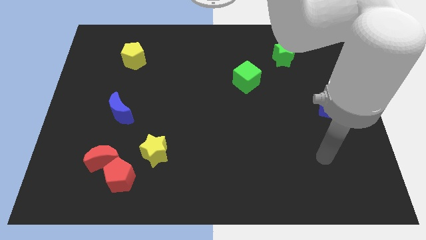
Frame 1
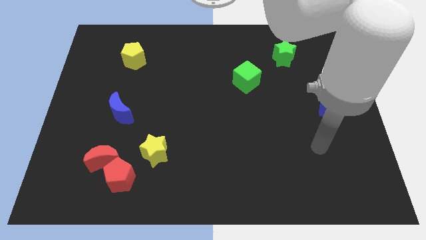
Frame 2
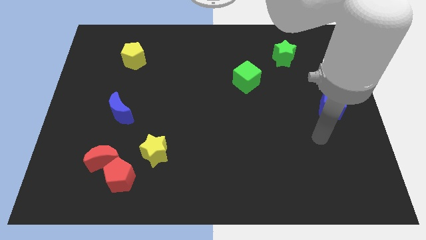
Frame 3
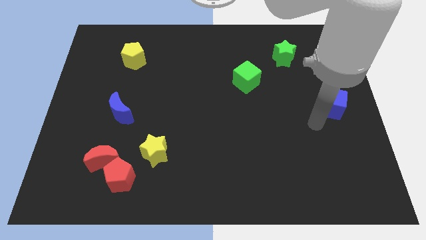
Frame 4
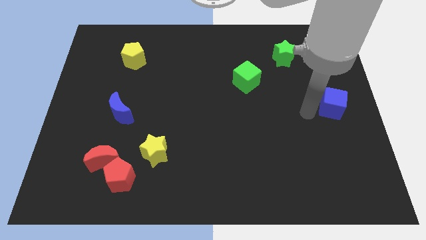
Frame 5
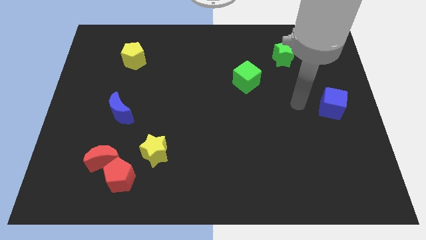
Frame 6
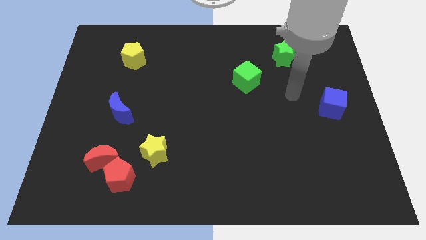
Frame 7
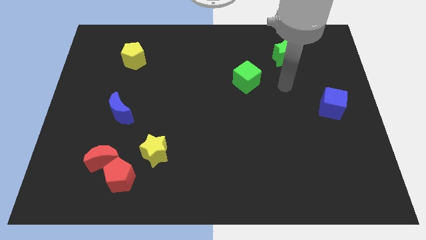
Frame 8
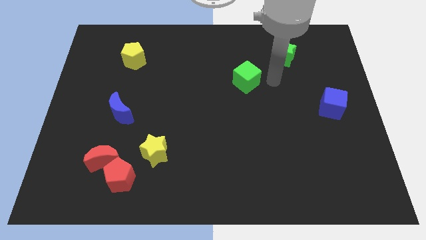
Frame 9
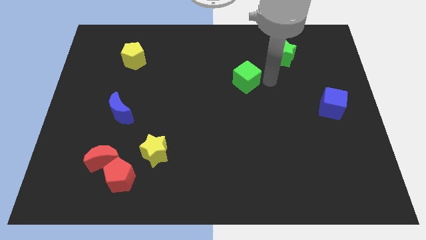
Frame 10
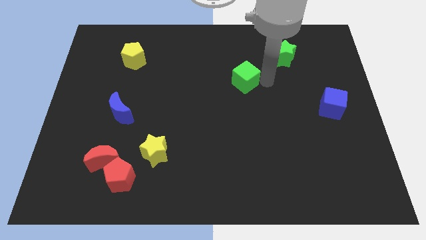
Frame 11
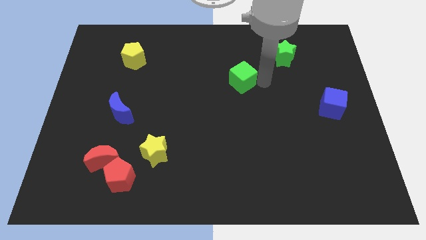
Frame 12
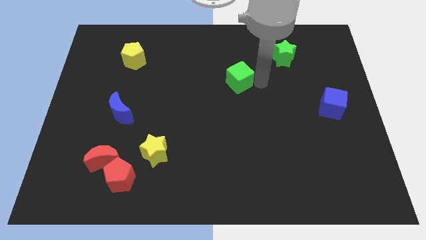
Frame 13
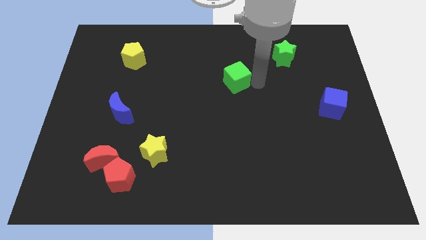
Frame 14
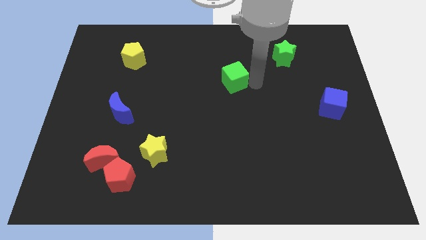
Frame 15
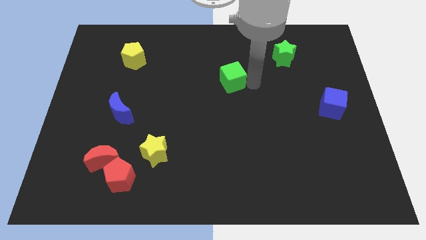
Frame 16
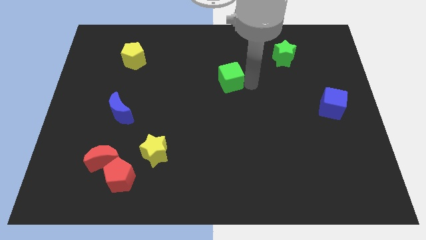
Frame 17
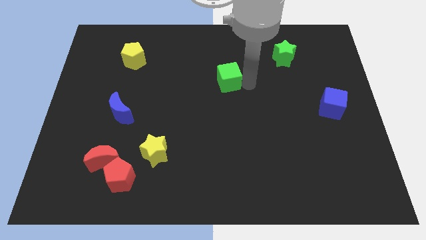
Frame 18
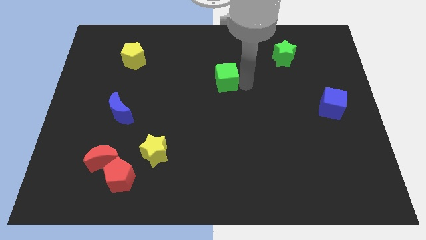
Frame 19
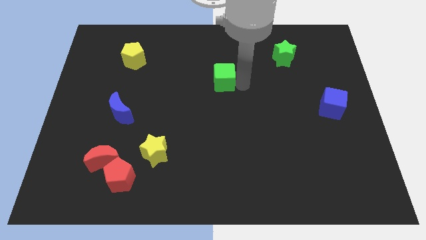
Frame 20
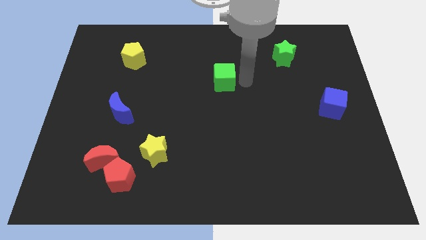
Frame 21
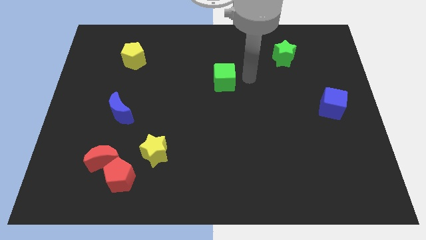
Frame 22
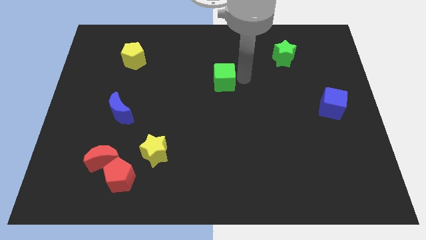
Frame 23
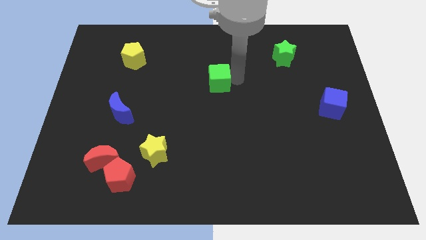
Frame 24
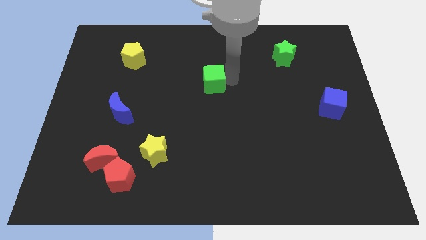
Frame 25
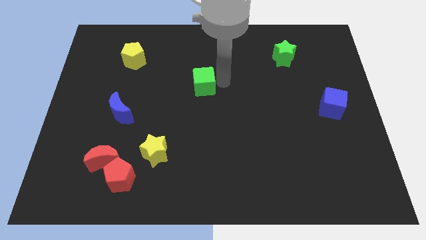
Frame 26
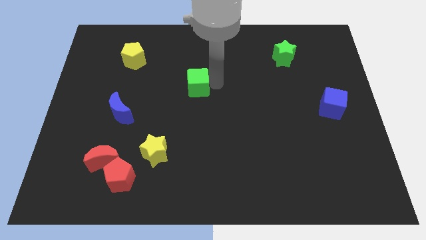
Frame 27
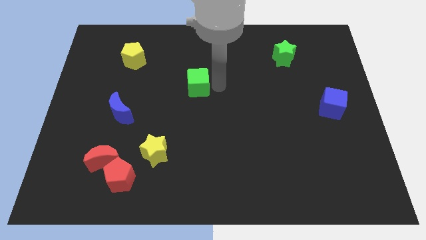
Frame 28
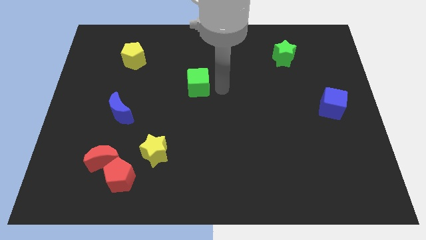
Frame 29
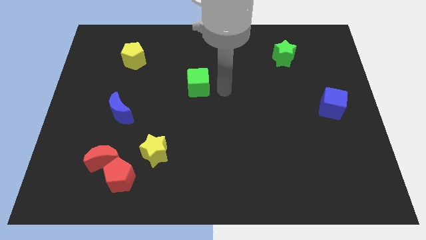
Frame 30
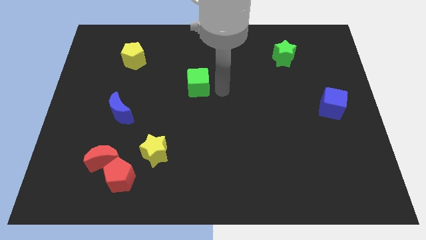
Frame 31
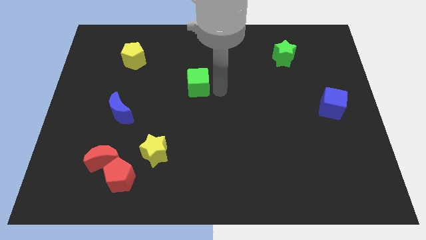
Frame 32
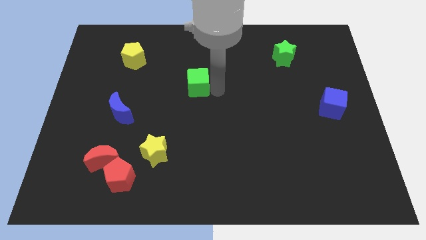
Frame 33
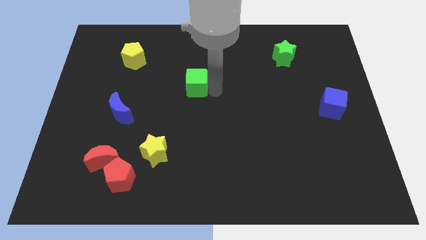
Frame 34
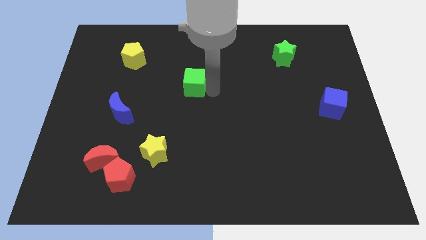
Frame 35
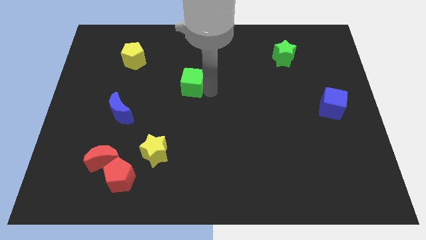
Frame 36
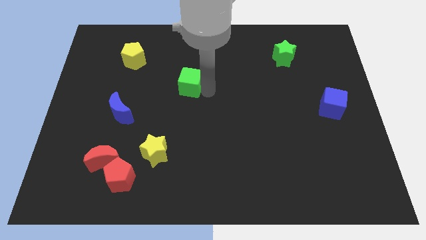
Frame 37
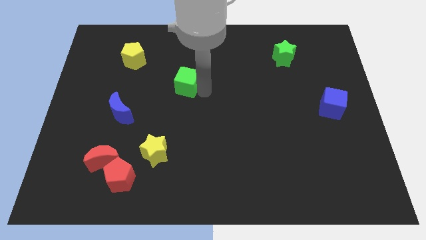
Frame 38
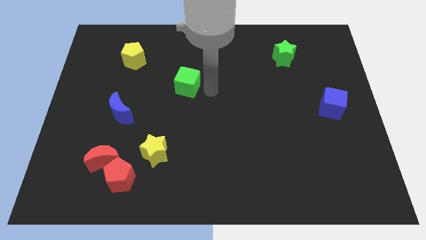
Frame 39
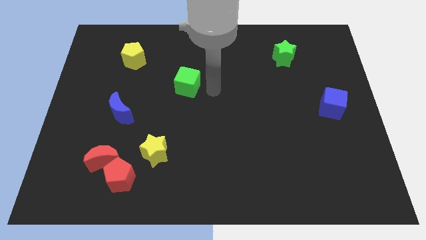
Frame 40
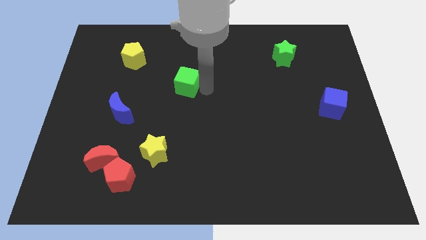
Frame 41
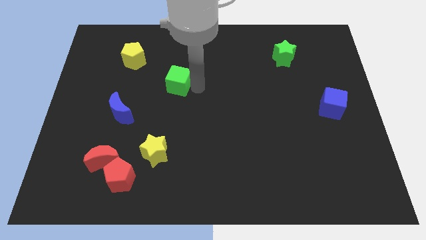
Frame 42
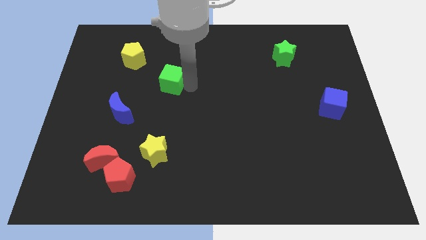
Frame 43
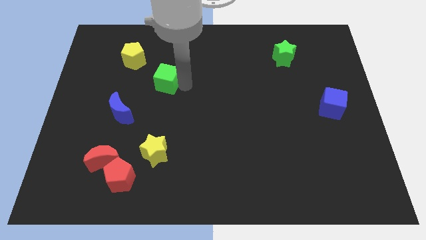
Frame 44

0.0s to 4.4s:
push the green cube left

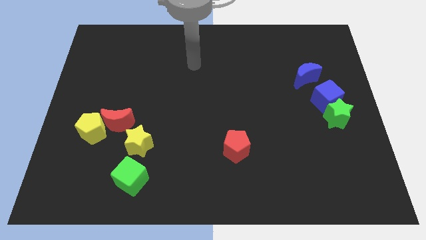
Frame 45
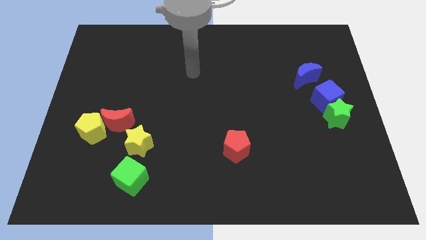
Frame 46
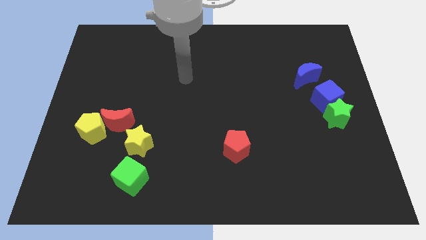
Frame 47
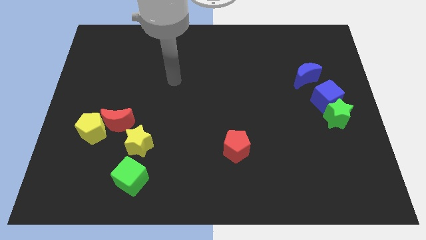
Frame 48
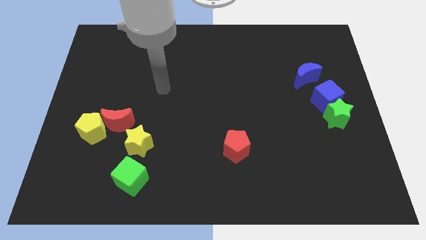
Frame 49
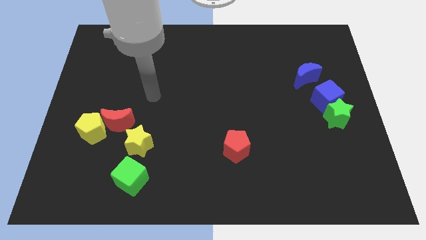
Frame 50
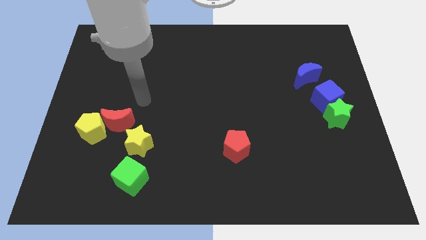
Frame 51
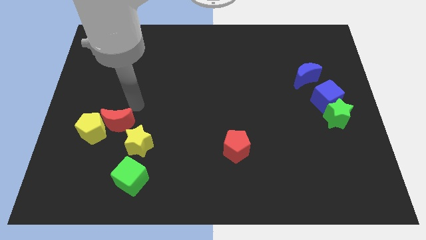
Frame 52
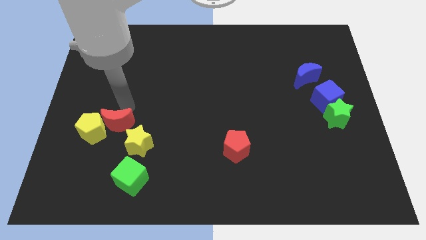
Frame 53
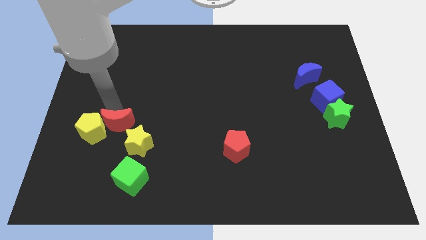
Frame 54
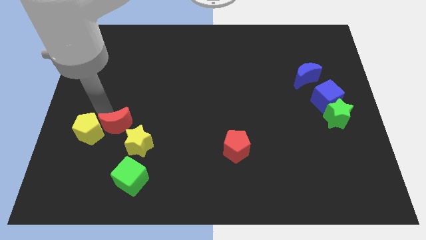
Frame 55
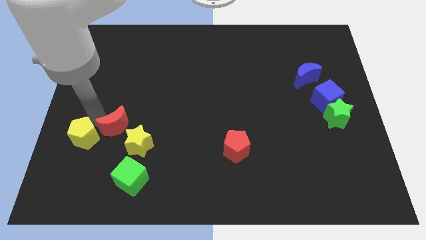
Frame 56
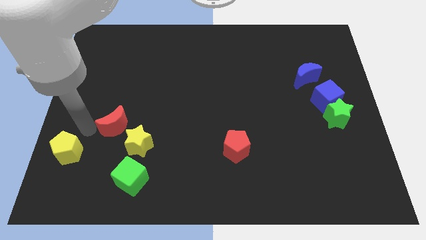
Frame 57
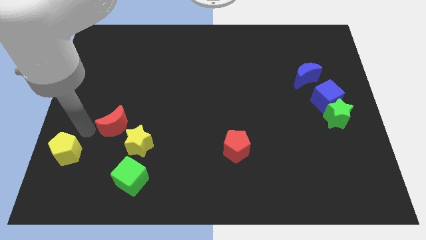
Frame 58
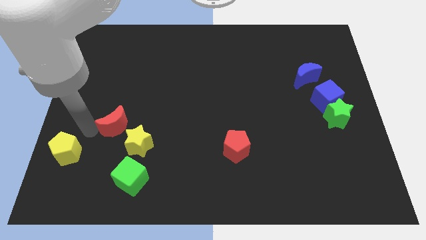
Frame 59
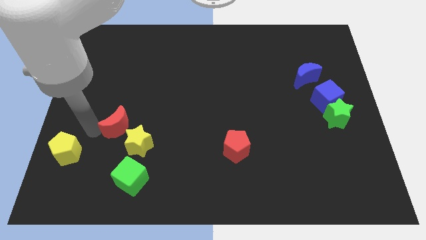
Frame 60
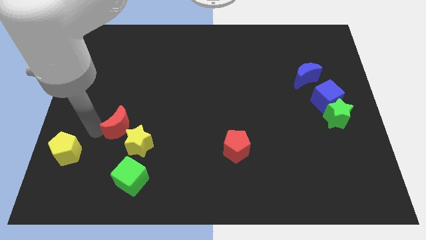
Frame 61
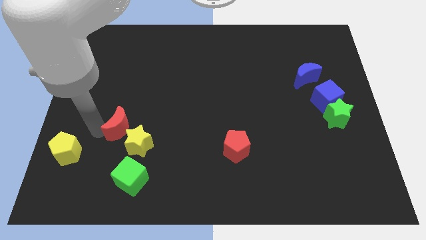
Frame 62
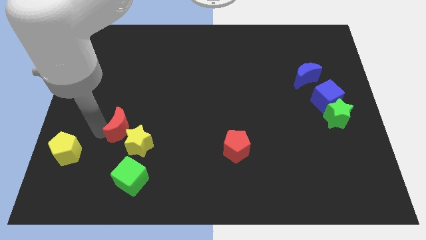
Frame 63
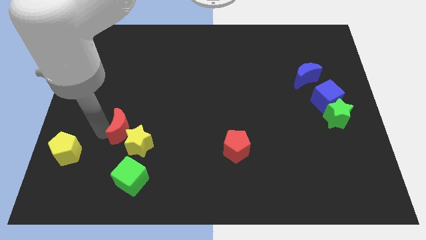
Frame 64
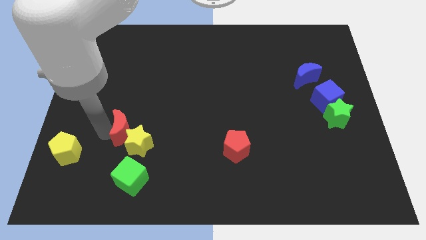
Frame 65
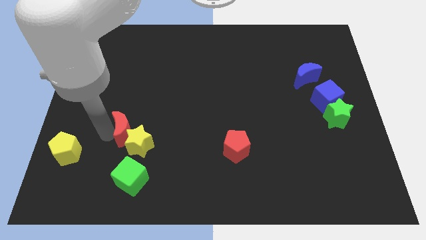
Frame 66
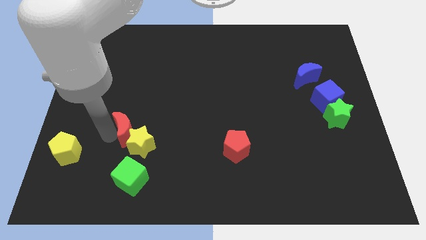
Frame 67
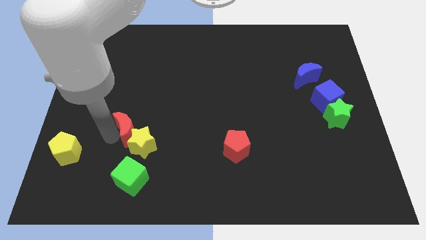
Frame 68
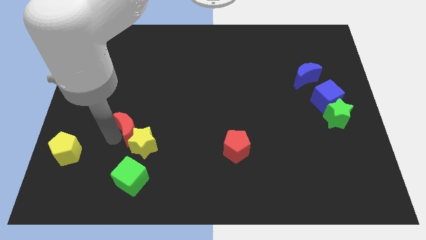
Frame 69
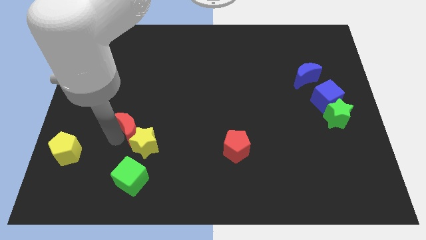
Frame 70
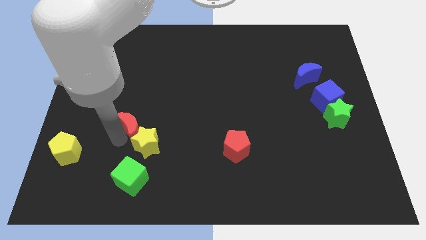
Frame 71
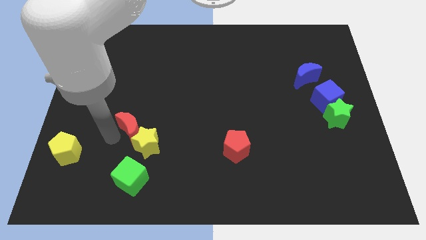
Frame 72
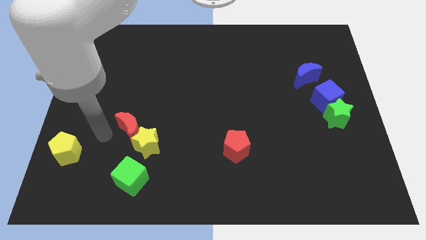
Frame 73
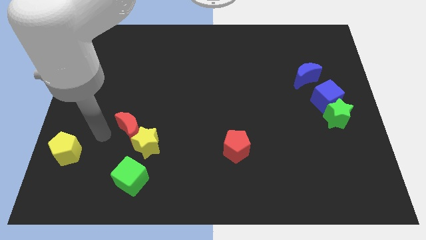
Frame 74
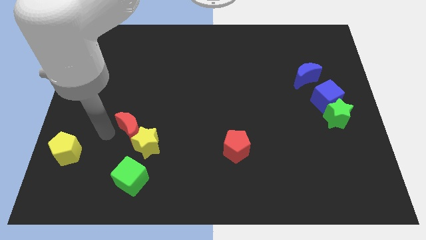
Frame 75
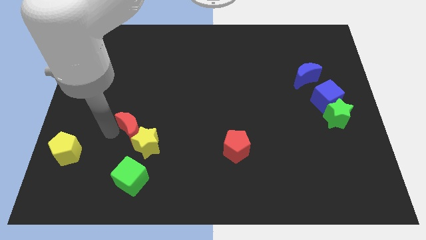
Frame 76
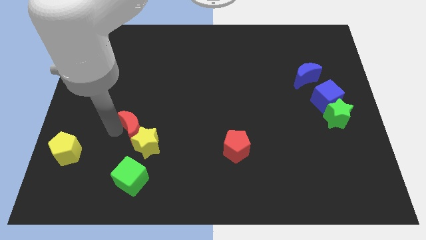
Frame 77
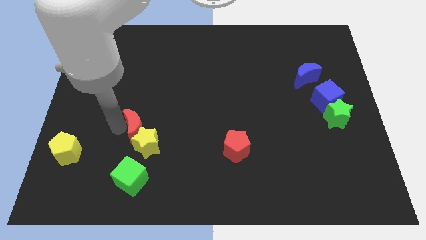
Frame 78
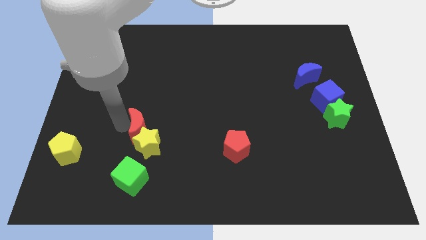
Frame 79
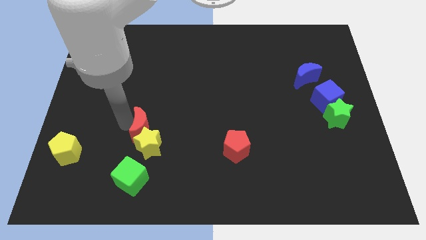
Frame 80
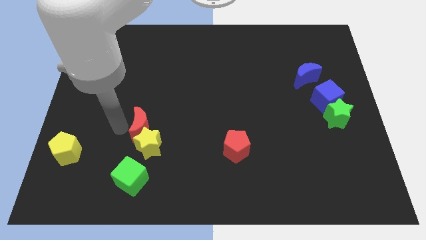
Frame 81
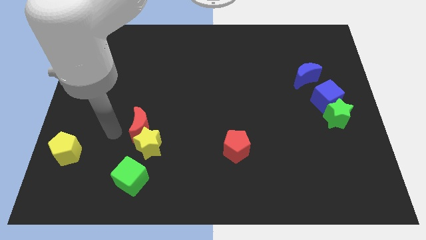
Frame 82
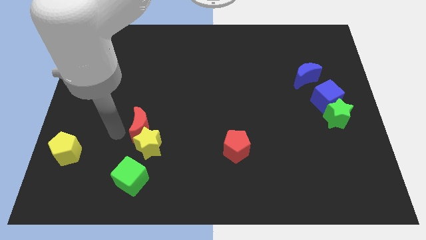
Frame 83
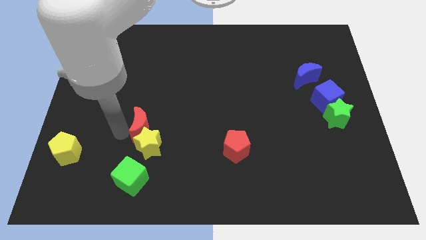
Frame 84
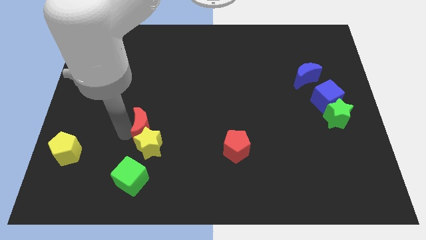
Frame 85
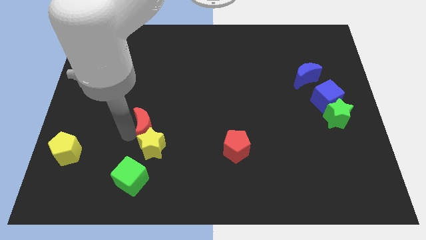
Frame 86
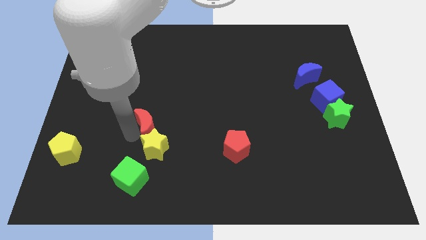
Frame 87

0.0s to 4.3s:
push the red moon right a bit
